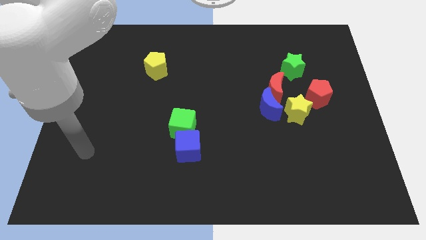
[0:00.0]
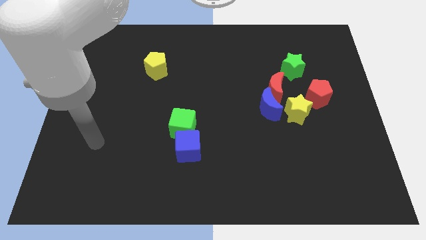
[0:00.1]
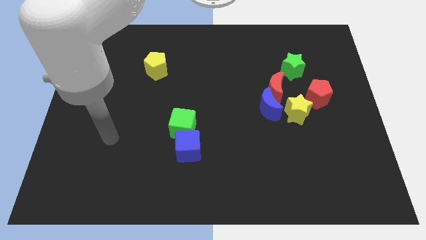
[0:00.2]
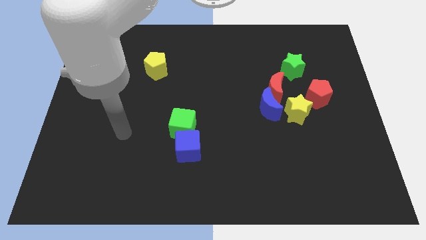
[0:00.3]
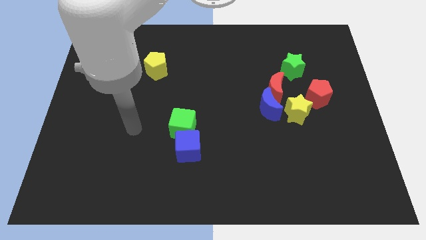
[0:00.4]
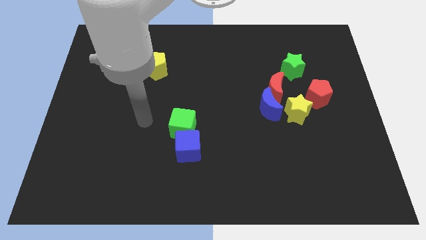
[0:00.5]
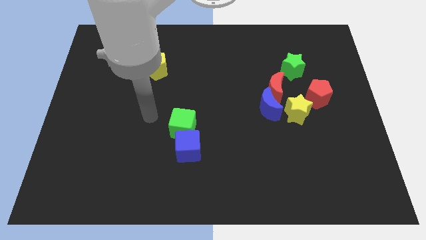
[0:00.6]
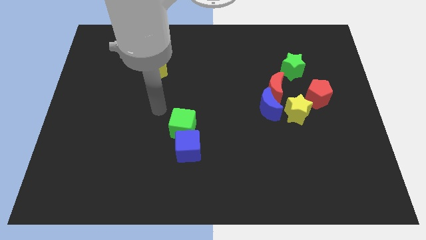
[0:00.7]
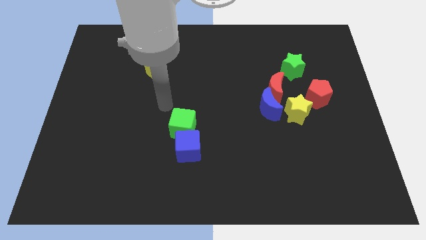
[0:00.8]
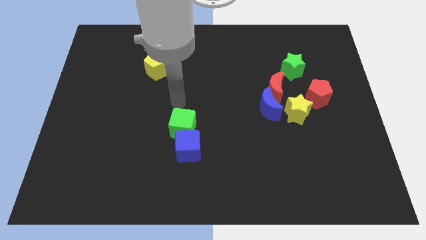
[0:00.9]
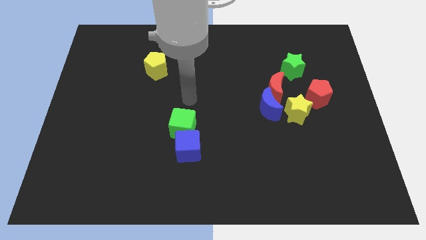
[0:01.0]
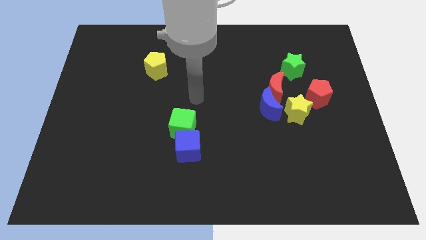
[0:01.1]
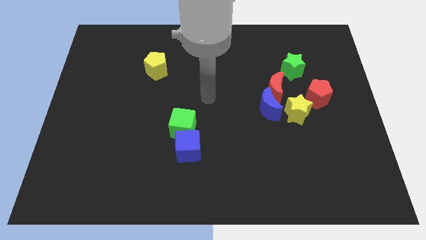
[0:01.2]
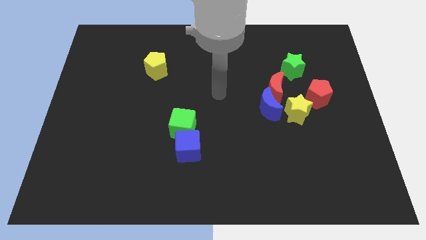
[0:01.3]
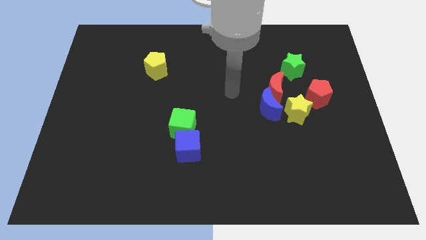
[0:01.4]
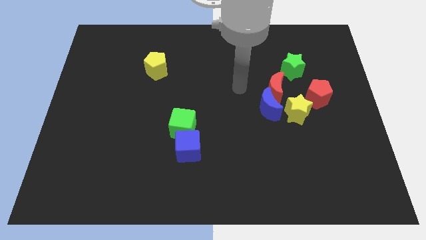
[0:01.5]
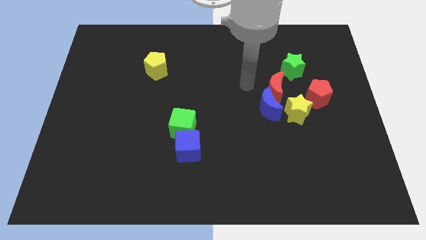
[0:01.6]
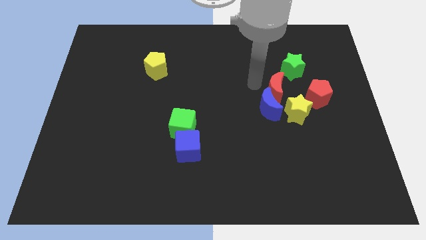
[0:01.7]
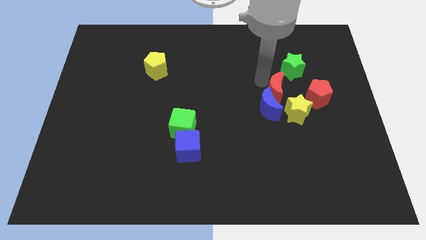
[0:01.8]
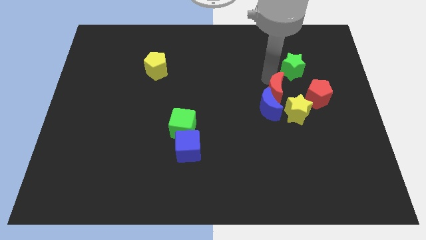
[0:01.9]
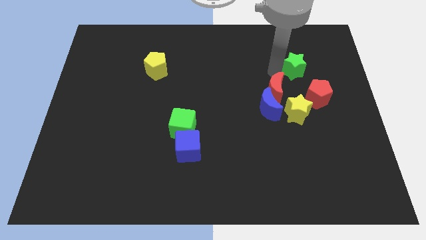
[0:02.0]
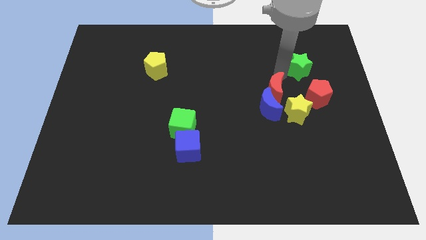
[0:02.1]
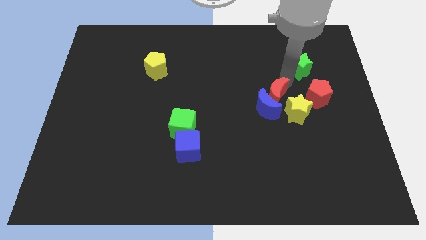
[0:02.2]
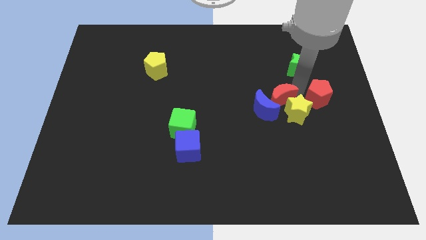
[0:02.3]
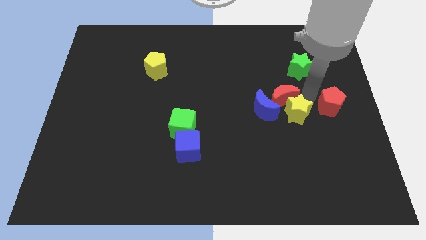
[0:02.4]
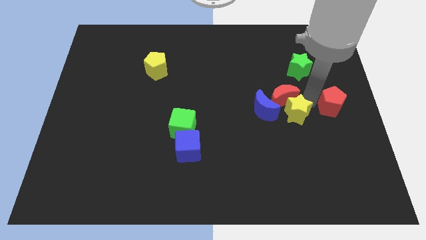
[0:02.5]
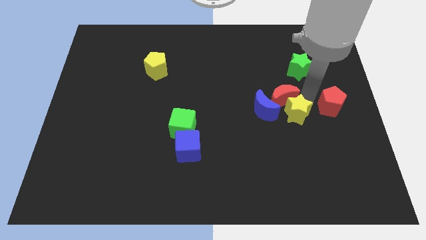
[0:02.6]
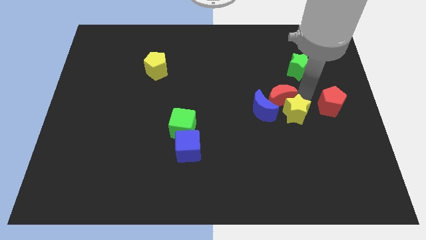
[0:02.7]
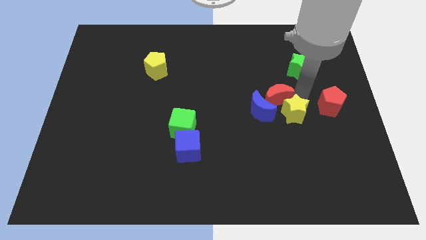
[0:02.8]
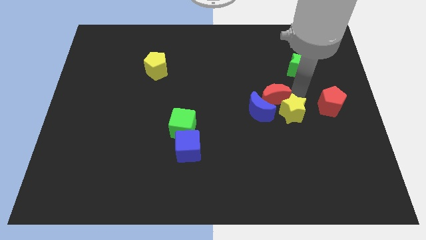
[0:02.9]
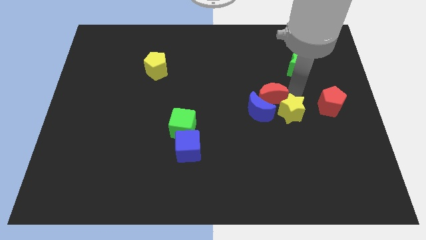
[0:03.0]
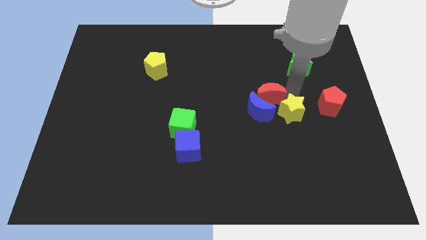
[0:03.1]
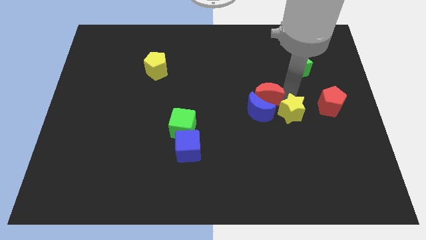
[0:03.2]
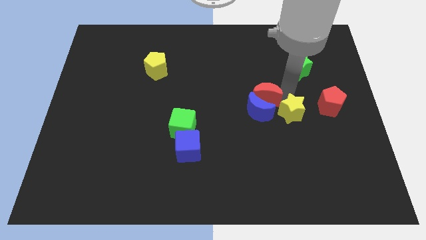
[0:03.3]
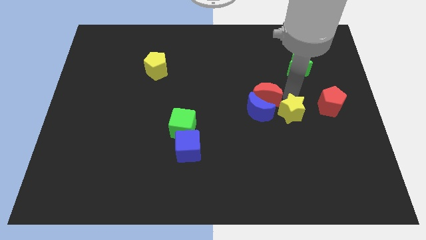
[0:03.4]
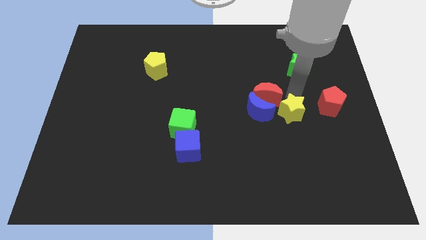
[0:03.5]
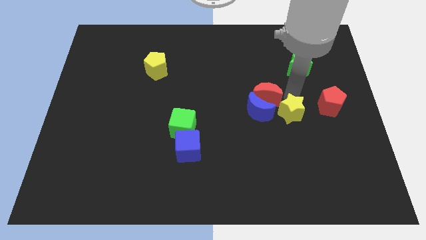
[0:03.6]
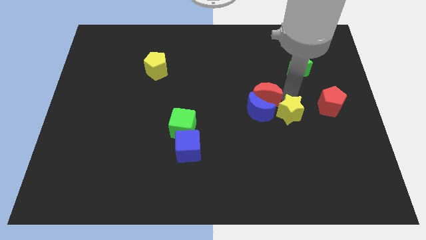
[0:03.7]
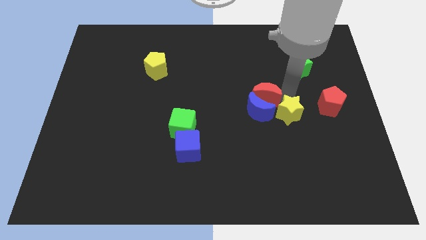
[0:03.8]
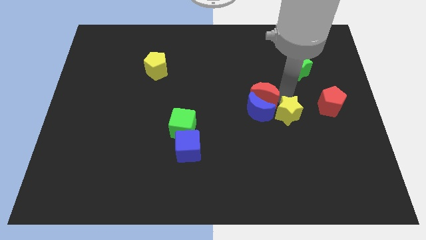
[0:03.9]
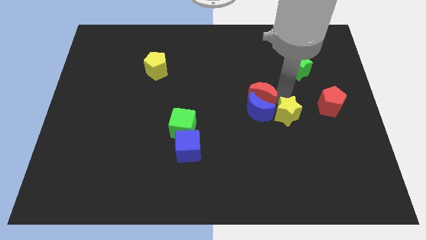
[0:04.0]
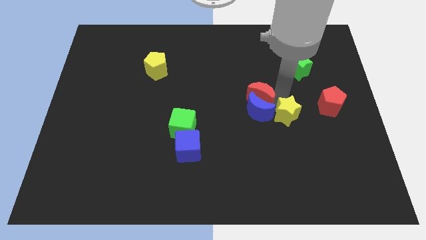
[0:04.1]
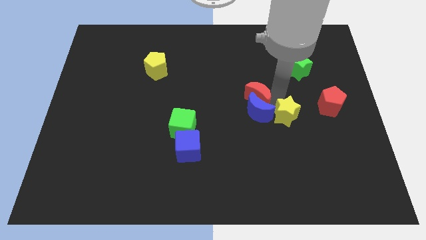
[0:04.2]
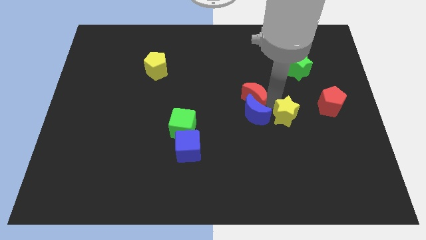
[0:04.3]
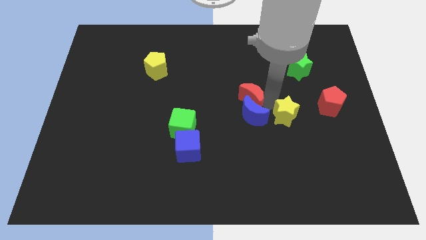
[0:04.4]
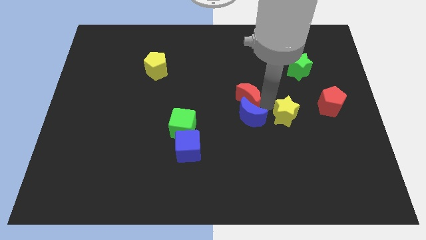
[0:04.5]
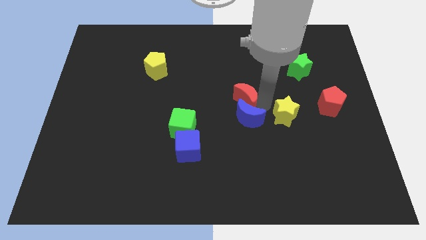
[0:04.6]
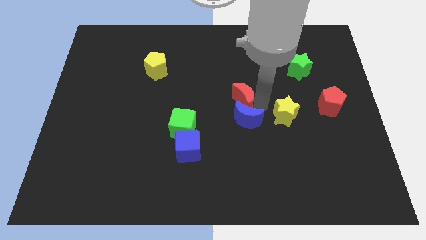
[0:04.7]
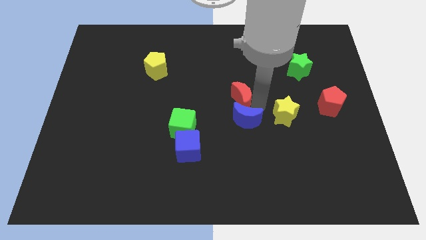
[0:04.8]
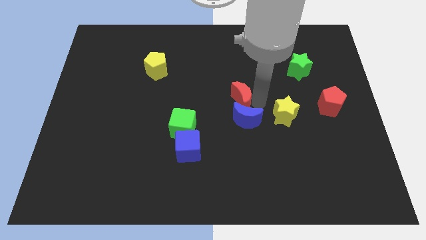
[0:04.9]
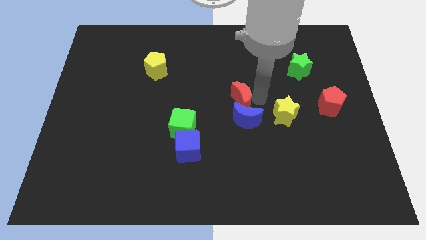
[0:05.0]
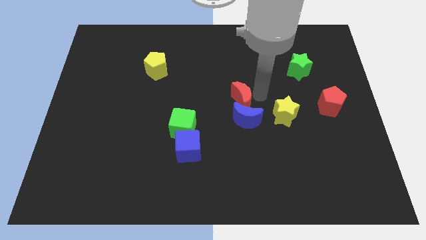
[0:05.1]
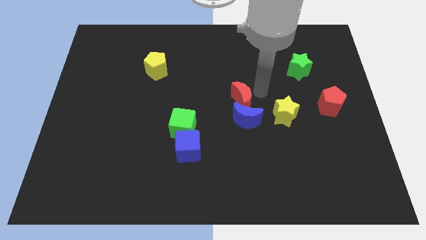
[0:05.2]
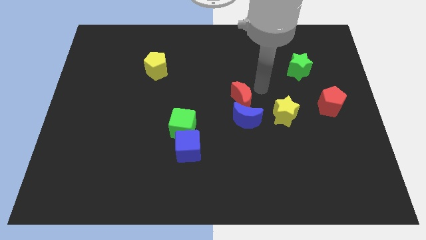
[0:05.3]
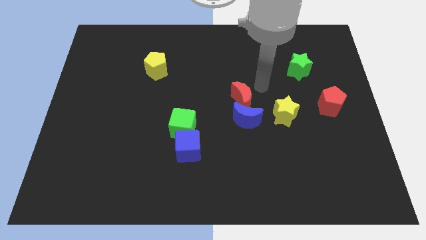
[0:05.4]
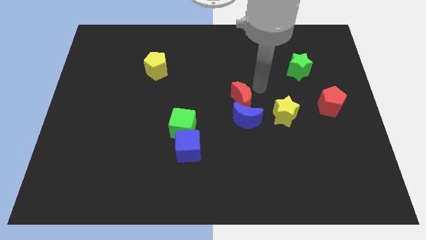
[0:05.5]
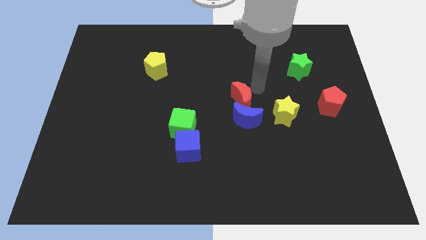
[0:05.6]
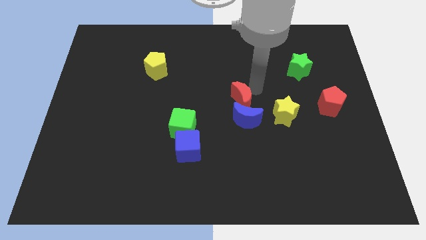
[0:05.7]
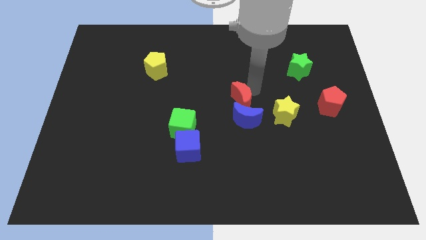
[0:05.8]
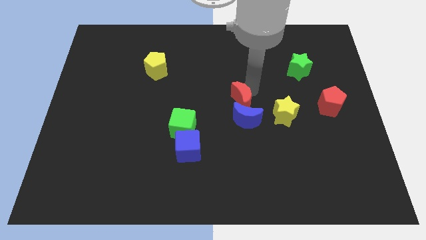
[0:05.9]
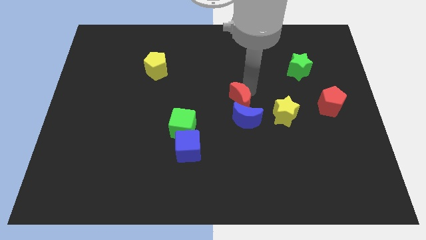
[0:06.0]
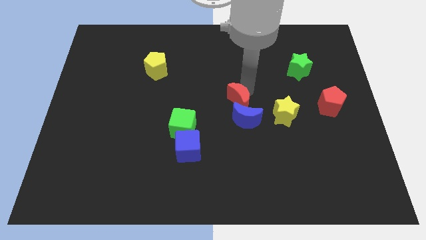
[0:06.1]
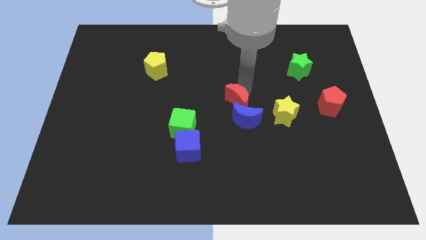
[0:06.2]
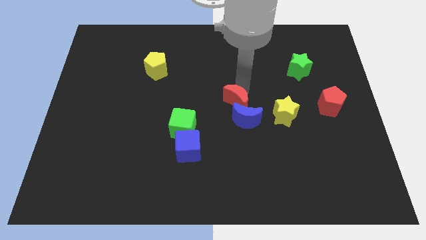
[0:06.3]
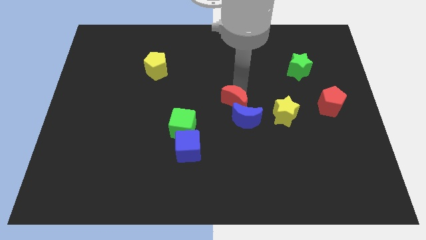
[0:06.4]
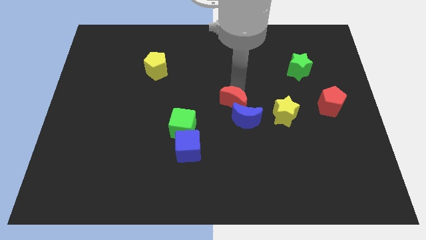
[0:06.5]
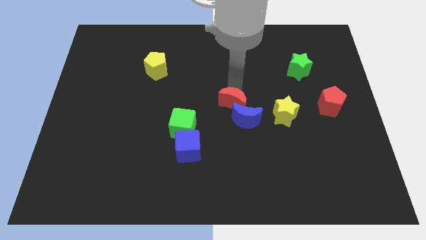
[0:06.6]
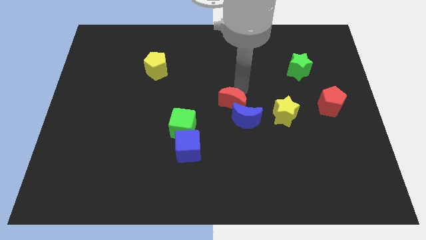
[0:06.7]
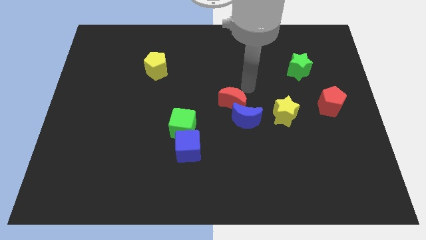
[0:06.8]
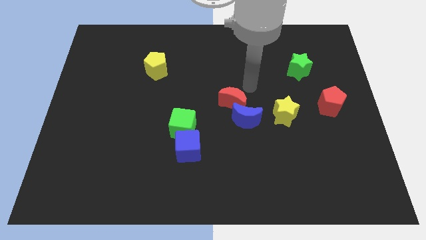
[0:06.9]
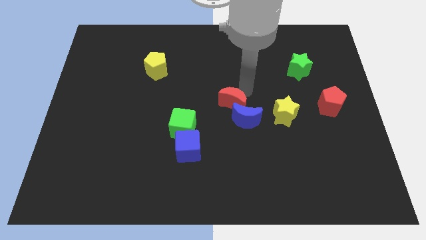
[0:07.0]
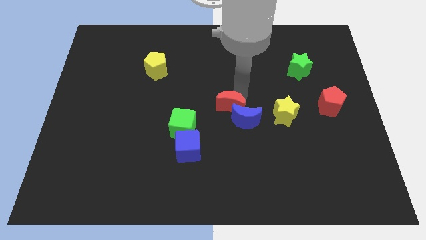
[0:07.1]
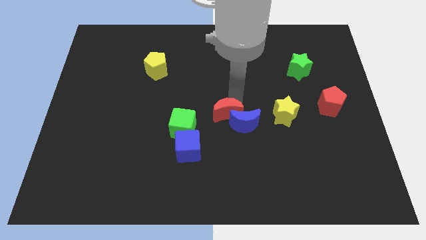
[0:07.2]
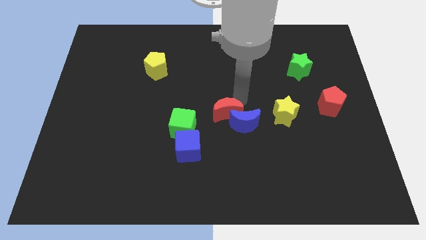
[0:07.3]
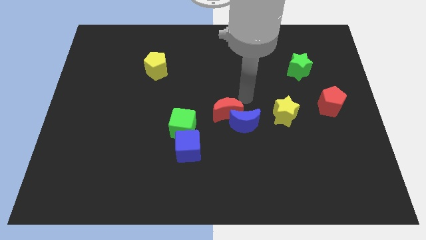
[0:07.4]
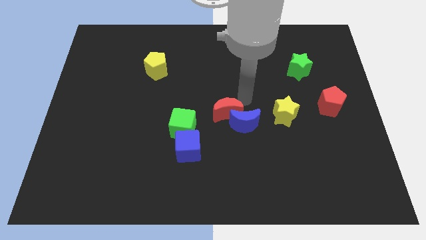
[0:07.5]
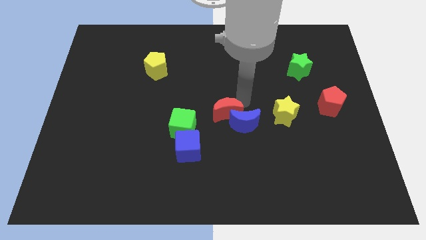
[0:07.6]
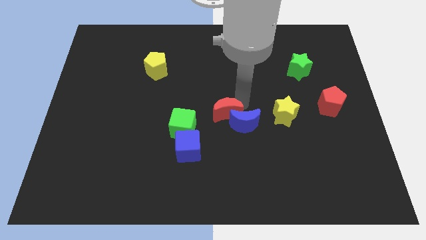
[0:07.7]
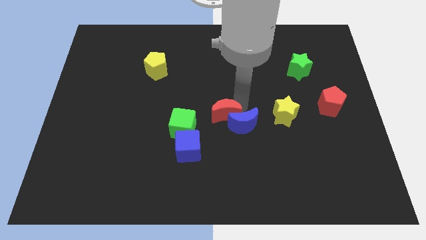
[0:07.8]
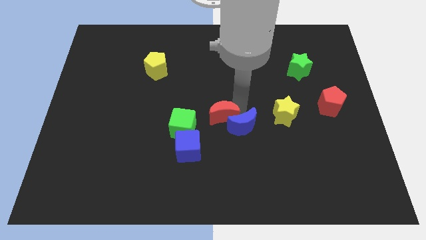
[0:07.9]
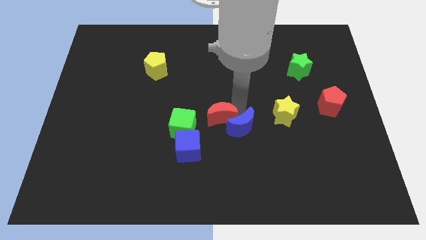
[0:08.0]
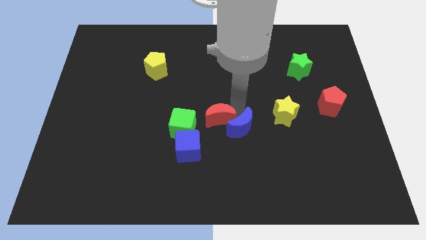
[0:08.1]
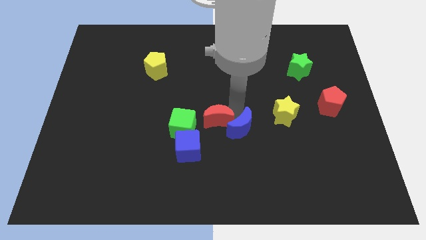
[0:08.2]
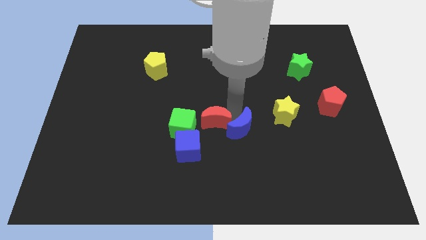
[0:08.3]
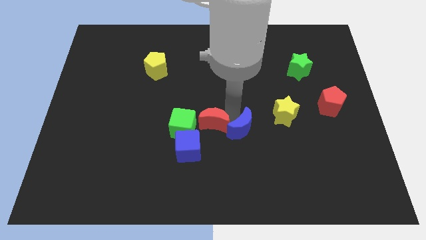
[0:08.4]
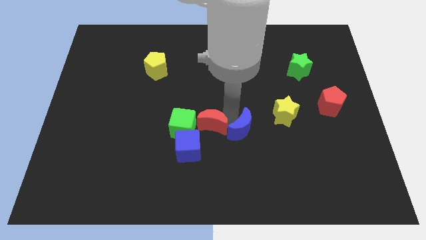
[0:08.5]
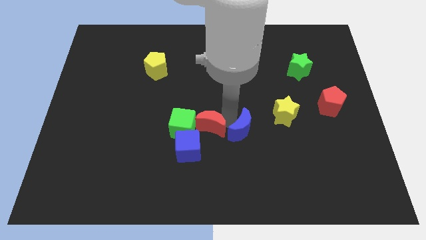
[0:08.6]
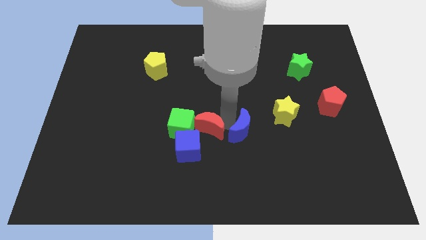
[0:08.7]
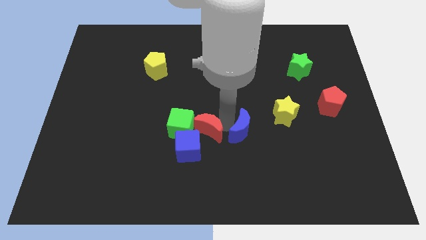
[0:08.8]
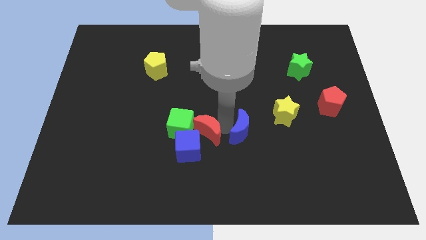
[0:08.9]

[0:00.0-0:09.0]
move the red moon close to the blue cube
